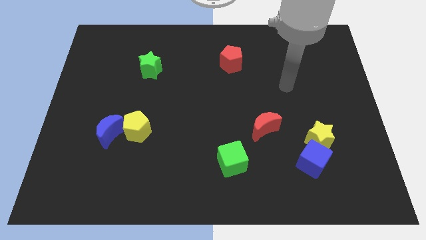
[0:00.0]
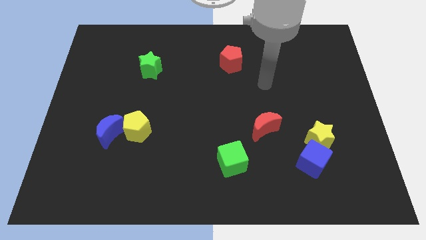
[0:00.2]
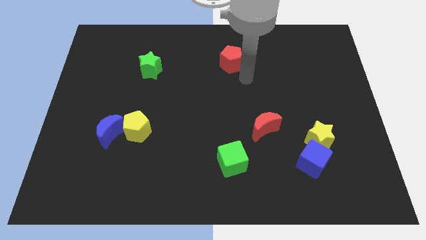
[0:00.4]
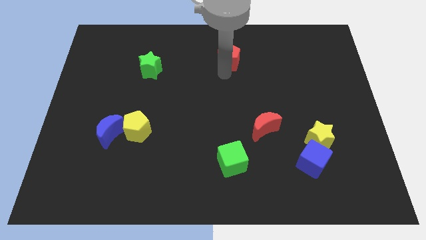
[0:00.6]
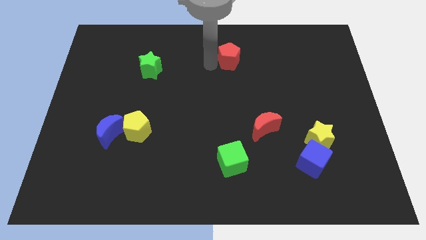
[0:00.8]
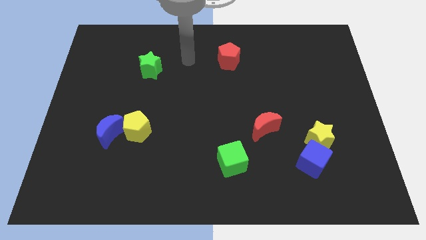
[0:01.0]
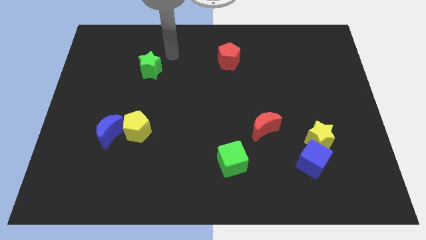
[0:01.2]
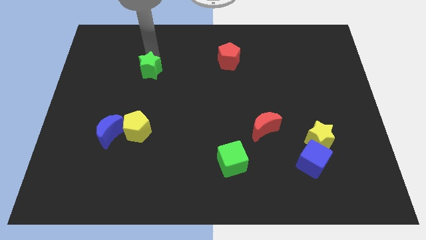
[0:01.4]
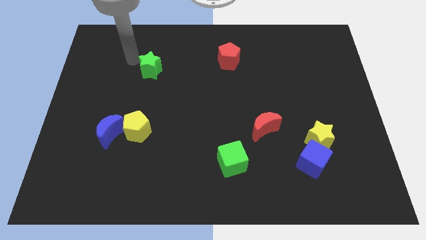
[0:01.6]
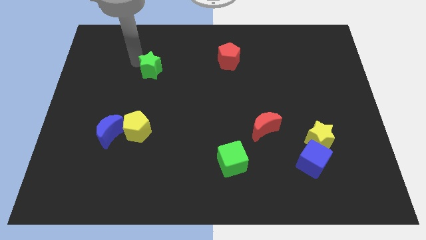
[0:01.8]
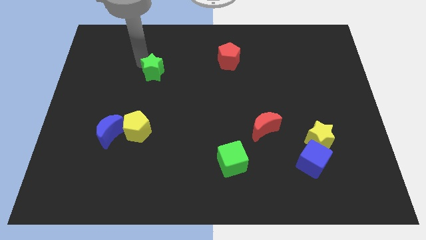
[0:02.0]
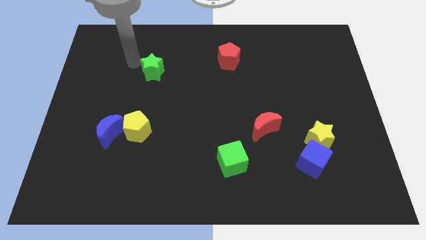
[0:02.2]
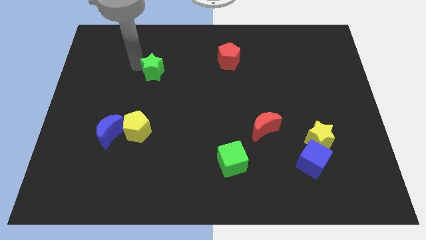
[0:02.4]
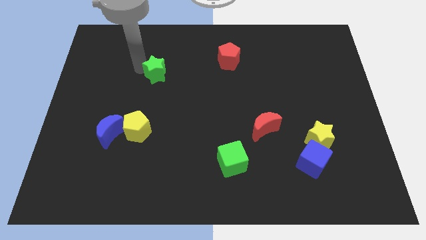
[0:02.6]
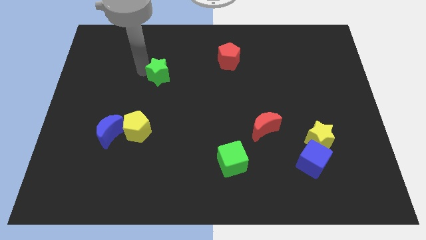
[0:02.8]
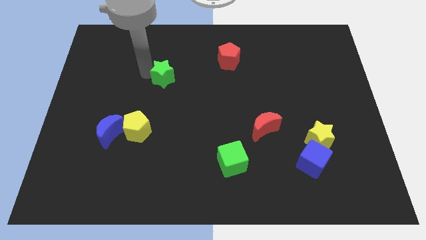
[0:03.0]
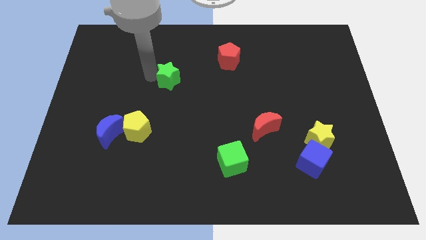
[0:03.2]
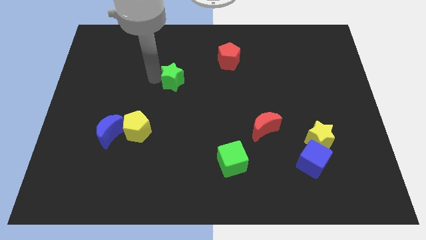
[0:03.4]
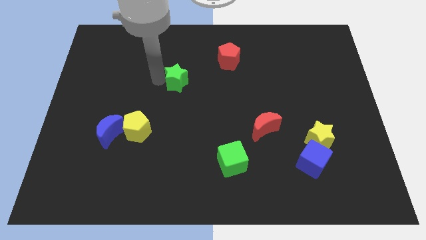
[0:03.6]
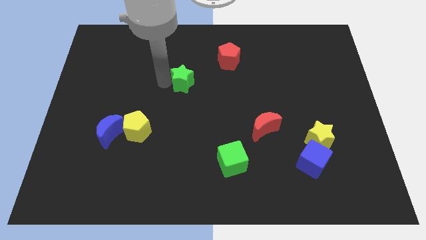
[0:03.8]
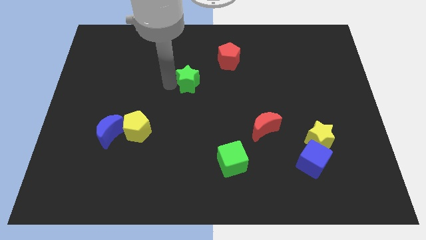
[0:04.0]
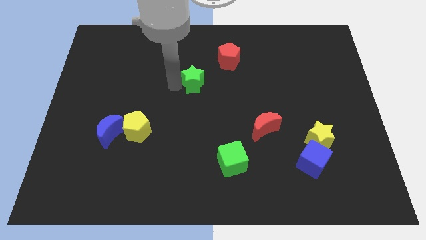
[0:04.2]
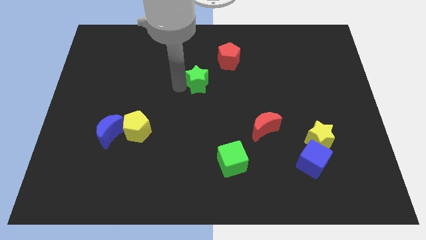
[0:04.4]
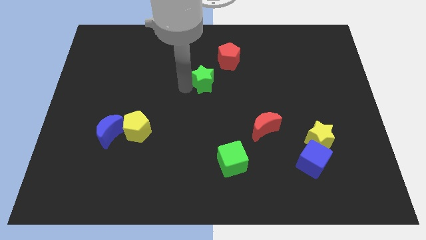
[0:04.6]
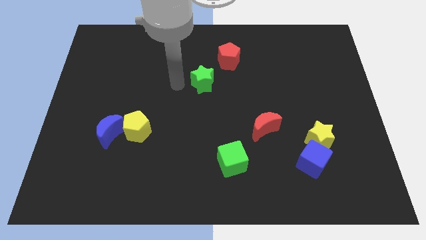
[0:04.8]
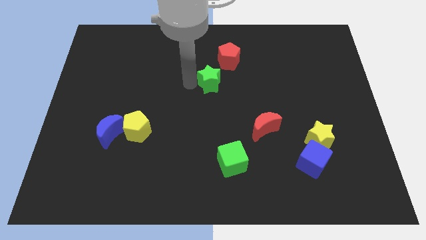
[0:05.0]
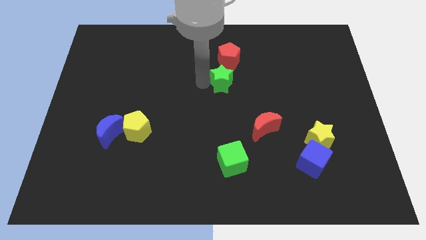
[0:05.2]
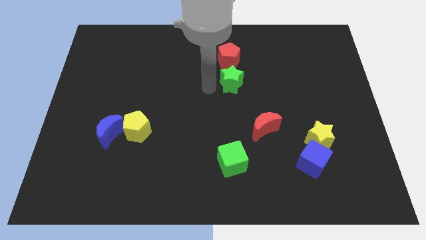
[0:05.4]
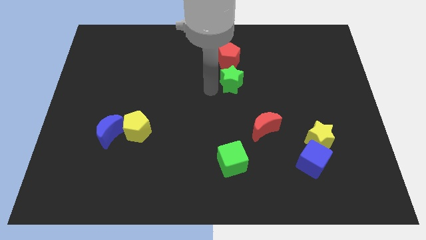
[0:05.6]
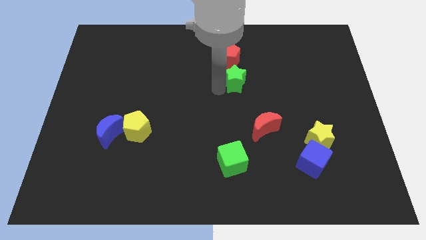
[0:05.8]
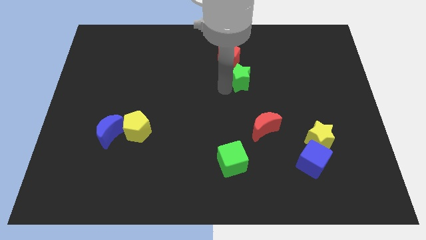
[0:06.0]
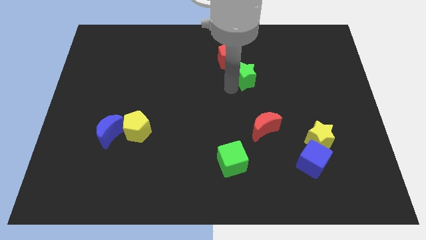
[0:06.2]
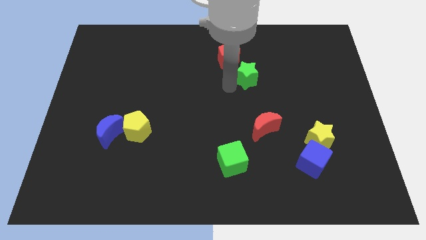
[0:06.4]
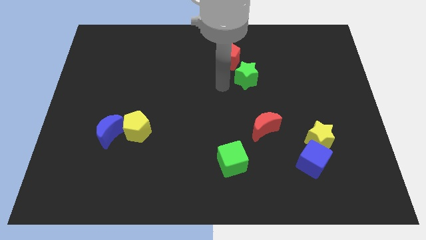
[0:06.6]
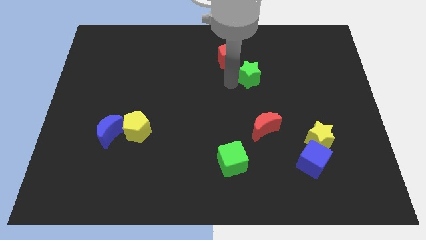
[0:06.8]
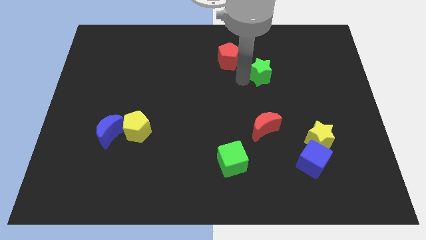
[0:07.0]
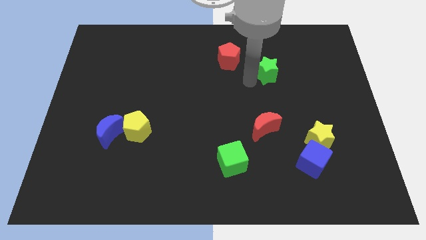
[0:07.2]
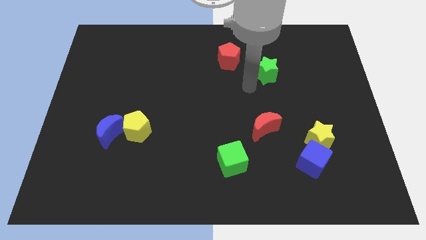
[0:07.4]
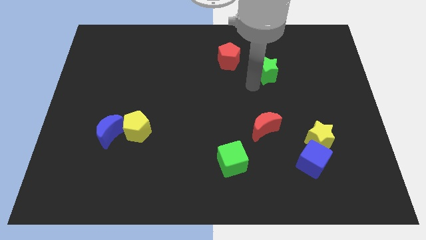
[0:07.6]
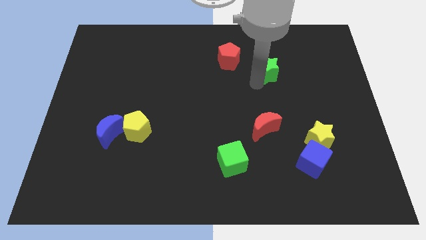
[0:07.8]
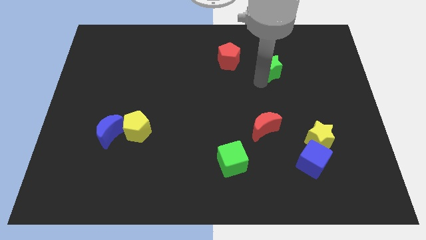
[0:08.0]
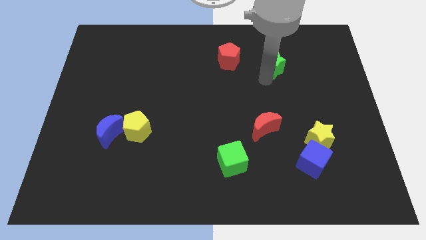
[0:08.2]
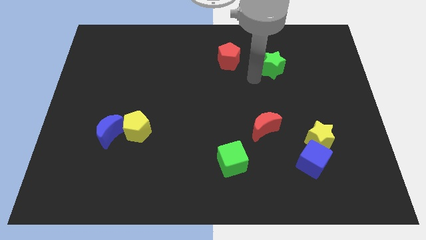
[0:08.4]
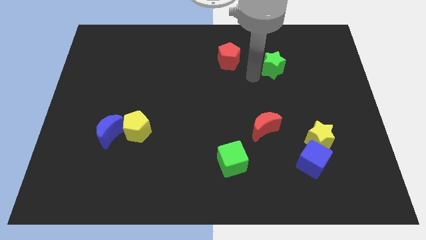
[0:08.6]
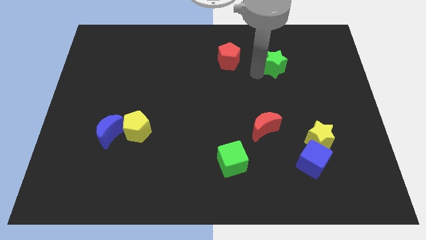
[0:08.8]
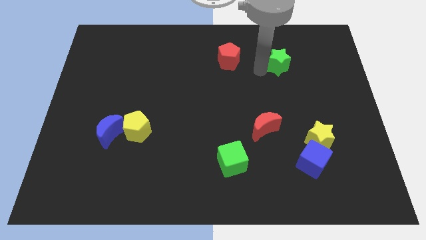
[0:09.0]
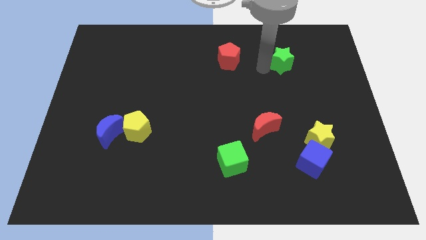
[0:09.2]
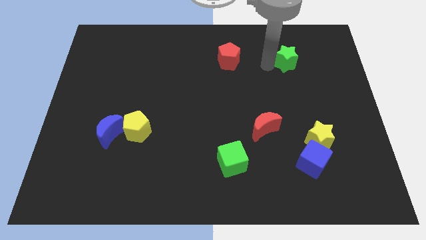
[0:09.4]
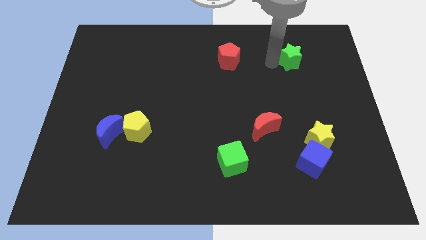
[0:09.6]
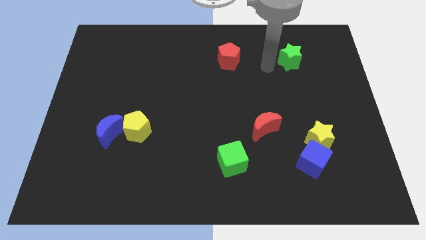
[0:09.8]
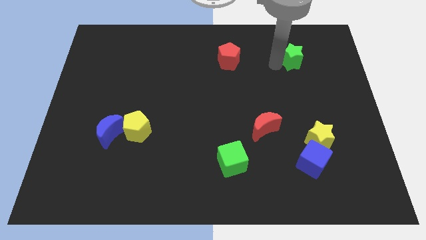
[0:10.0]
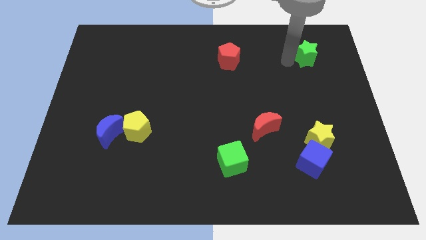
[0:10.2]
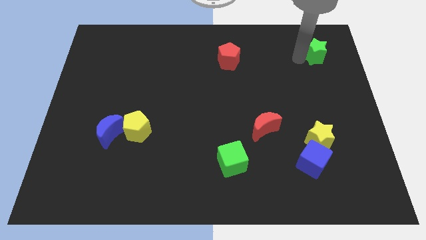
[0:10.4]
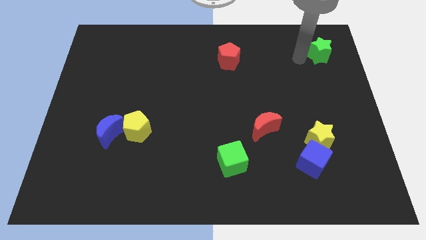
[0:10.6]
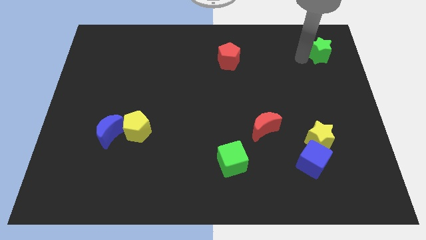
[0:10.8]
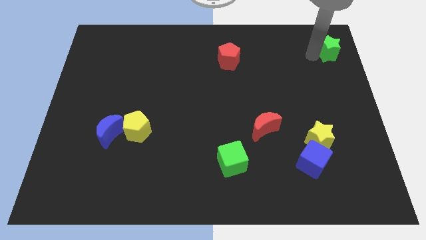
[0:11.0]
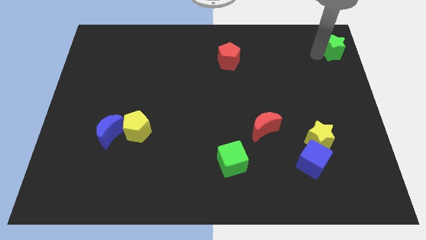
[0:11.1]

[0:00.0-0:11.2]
put the green star to the upper right corner

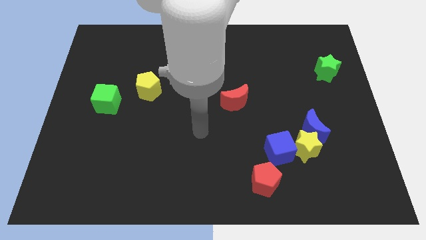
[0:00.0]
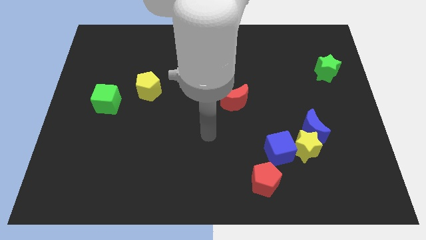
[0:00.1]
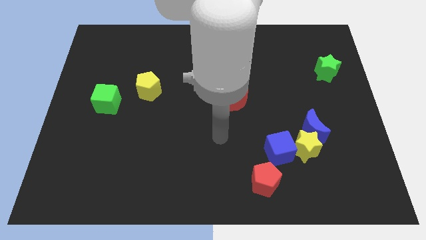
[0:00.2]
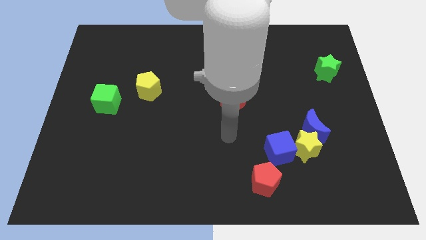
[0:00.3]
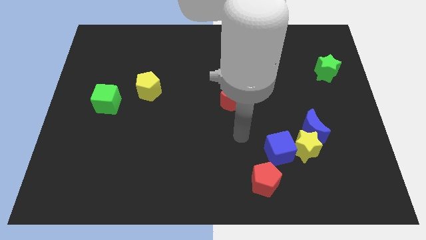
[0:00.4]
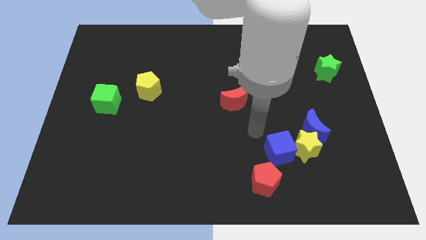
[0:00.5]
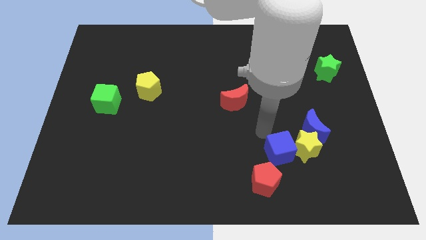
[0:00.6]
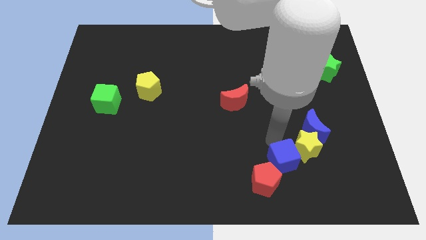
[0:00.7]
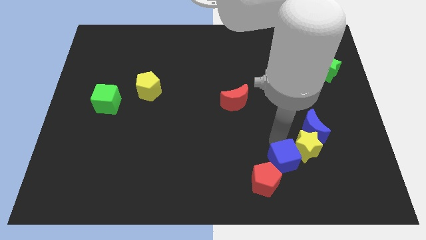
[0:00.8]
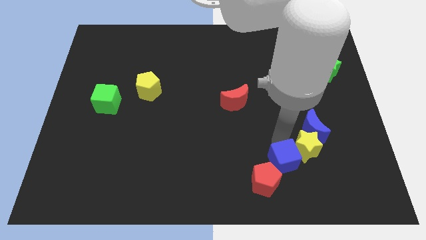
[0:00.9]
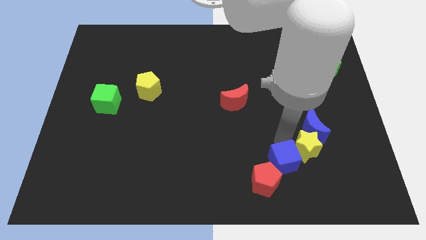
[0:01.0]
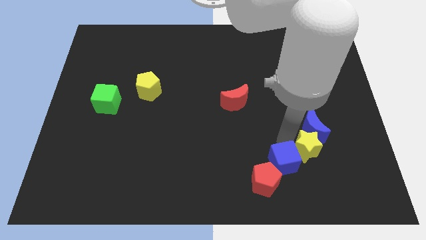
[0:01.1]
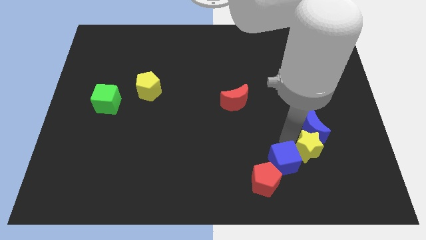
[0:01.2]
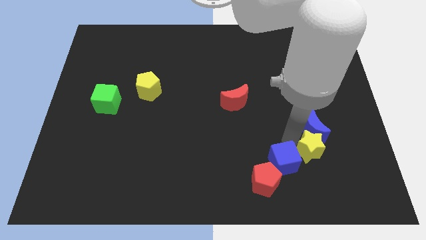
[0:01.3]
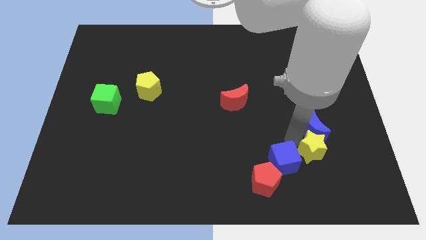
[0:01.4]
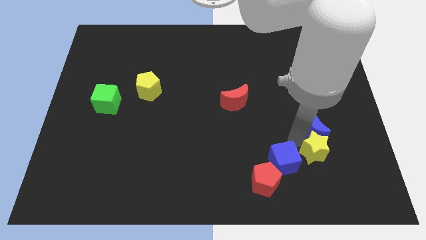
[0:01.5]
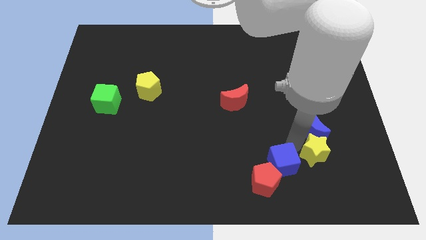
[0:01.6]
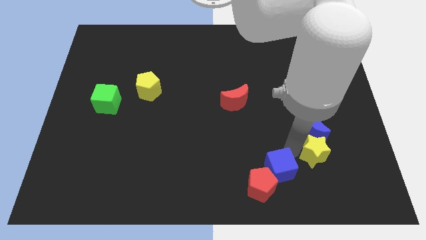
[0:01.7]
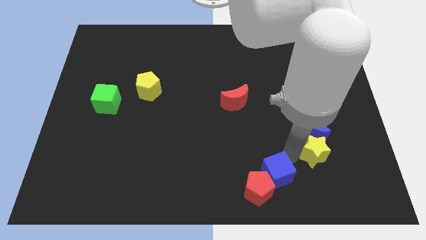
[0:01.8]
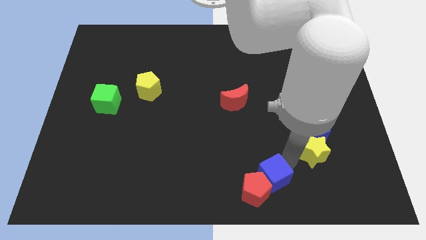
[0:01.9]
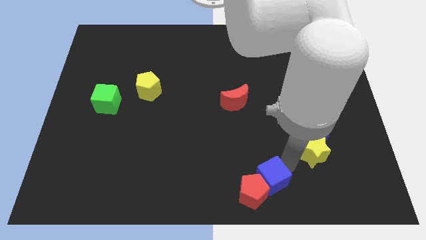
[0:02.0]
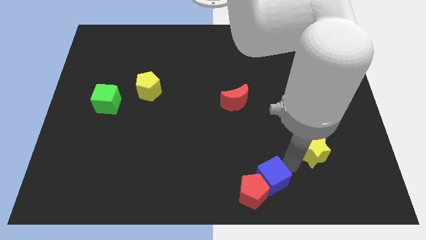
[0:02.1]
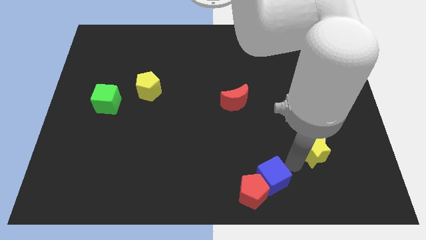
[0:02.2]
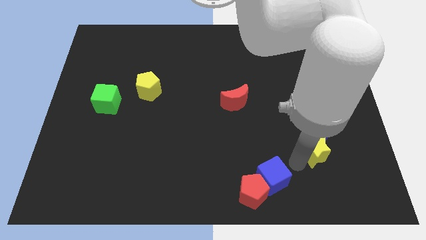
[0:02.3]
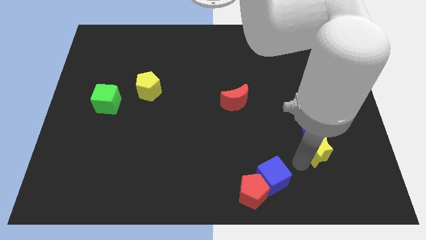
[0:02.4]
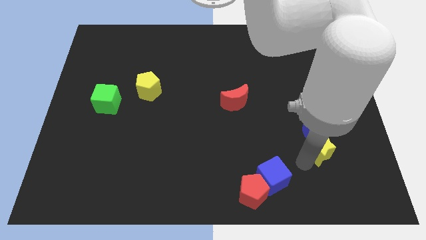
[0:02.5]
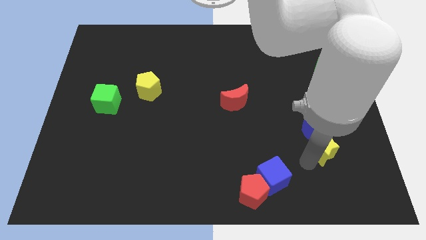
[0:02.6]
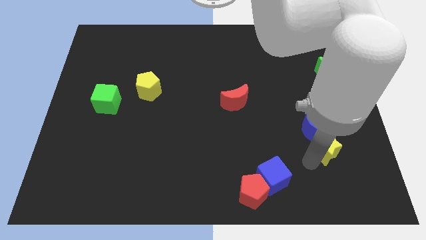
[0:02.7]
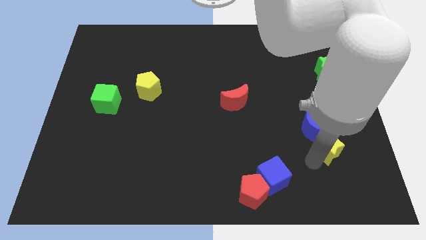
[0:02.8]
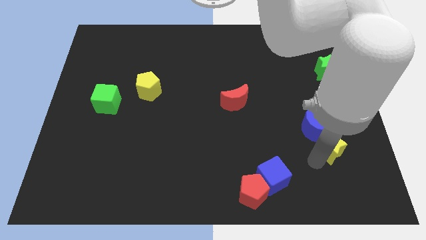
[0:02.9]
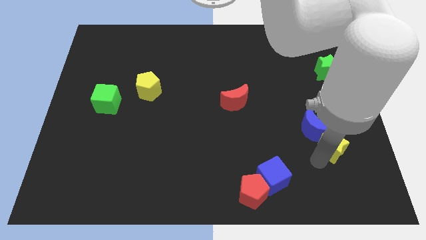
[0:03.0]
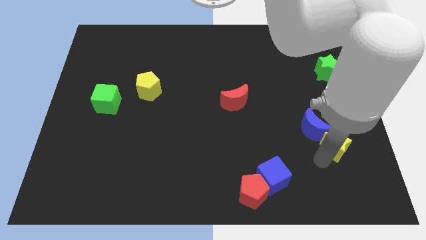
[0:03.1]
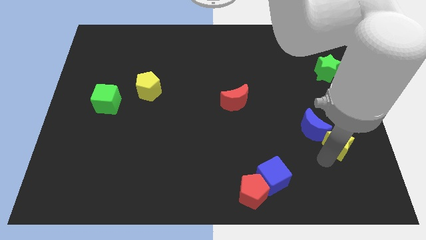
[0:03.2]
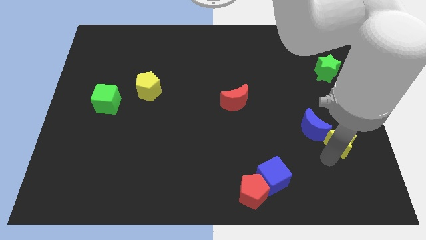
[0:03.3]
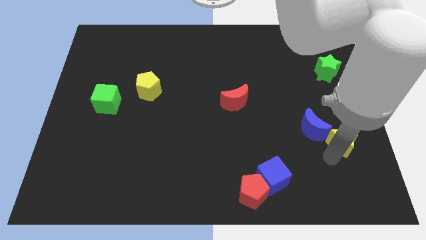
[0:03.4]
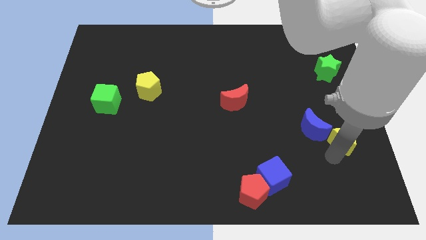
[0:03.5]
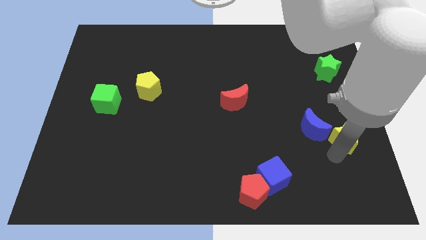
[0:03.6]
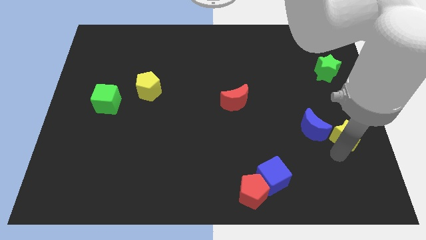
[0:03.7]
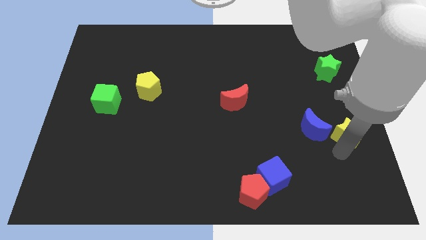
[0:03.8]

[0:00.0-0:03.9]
push the yellow star to the right side of the board
